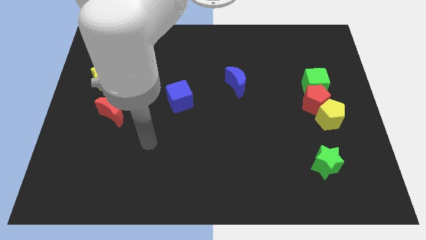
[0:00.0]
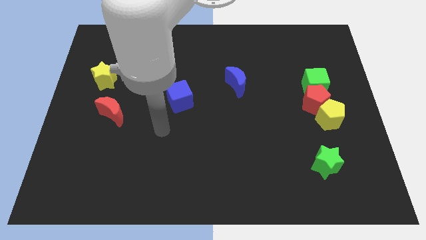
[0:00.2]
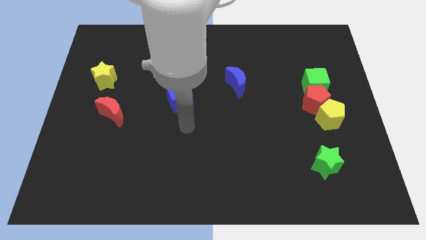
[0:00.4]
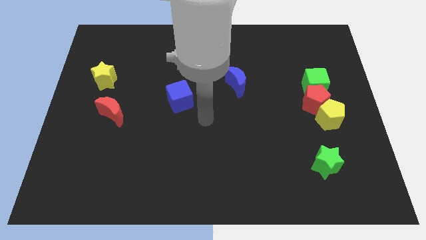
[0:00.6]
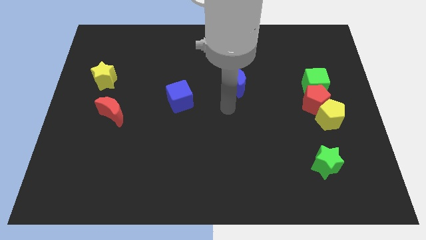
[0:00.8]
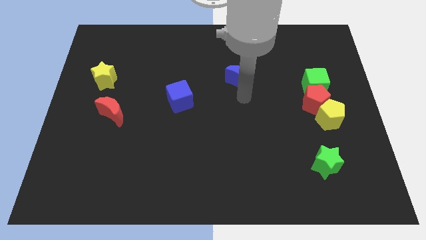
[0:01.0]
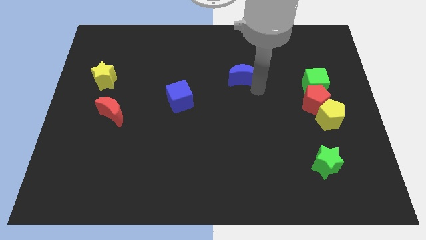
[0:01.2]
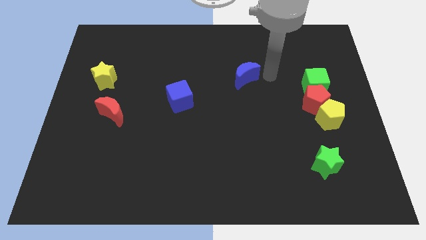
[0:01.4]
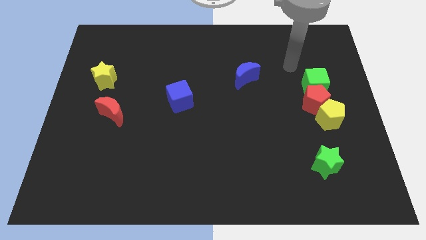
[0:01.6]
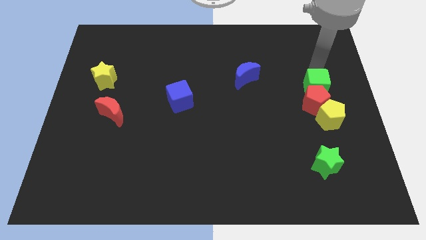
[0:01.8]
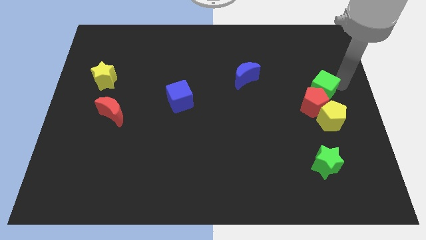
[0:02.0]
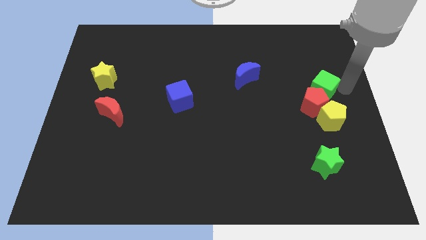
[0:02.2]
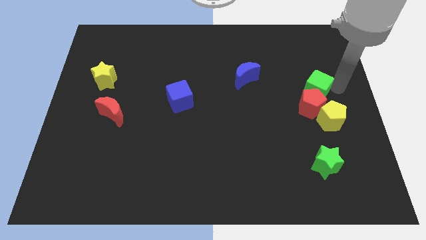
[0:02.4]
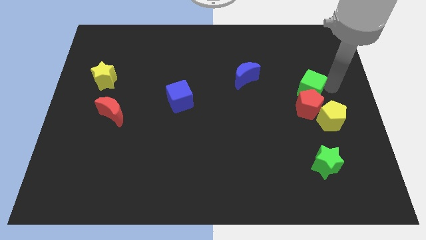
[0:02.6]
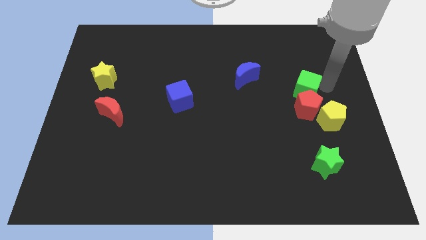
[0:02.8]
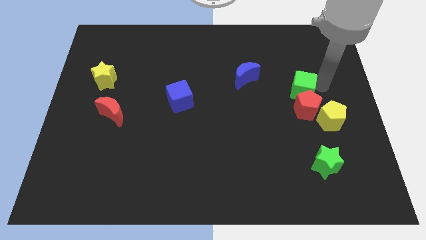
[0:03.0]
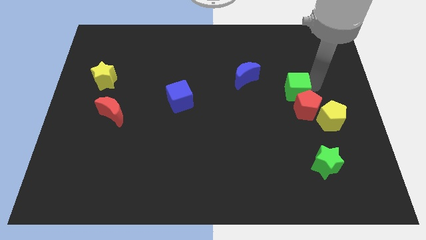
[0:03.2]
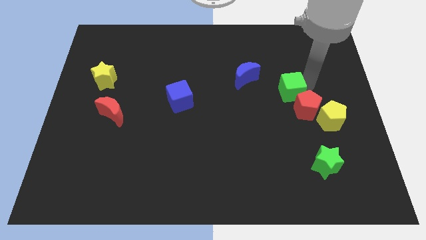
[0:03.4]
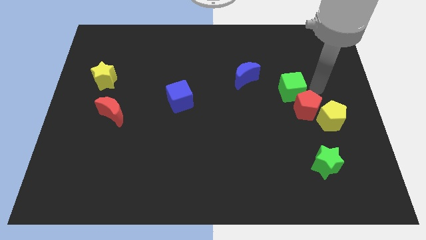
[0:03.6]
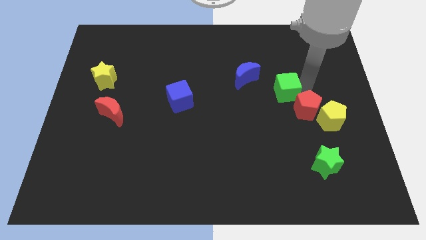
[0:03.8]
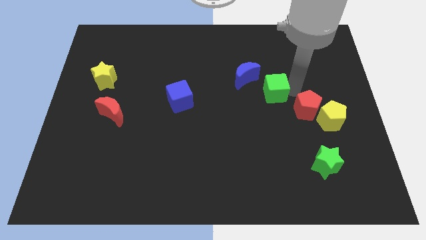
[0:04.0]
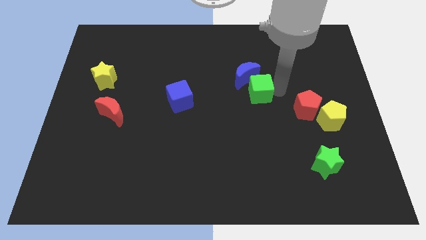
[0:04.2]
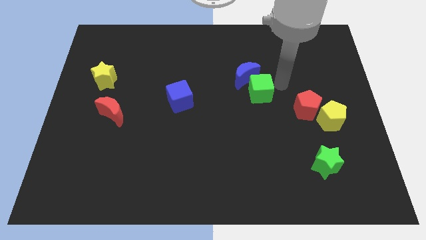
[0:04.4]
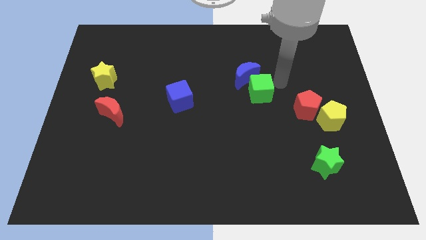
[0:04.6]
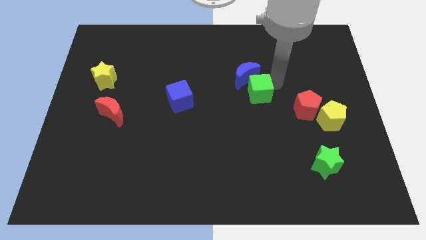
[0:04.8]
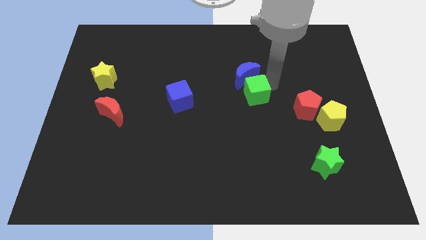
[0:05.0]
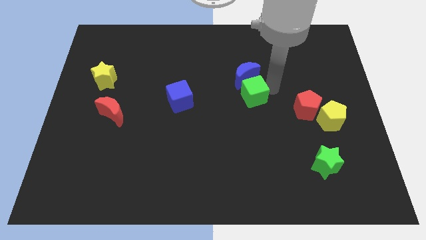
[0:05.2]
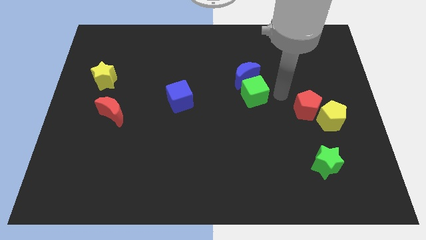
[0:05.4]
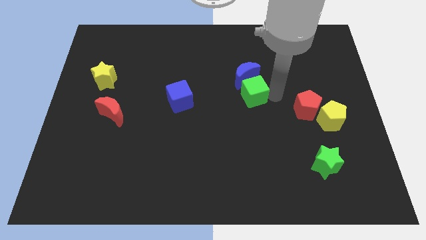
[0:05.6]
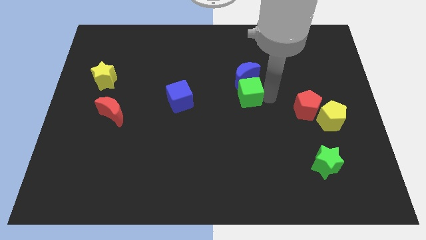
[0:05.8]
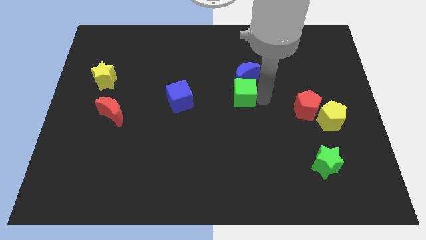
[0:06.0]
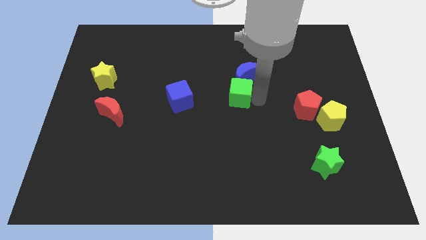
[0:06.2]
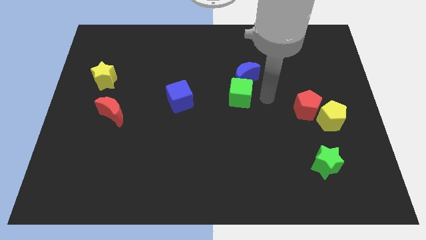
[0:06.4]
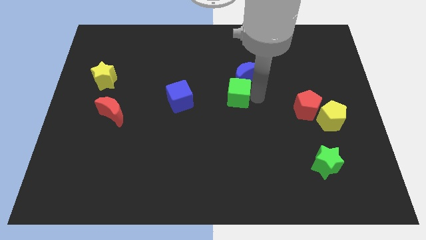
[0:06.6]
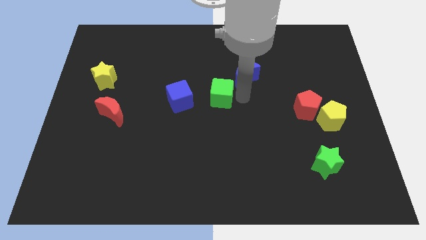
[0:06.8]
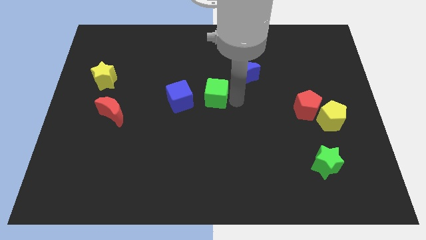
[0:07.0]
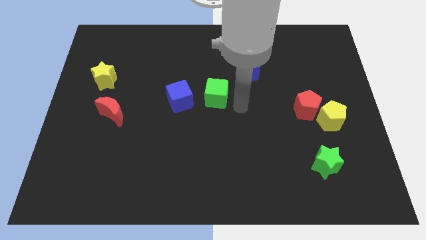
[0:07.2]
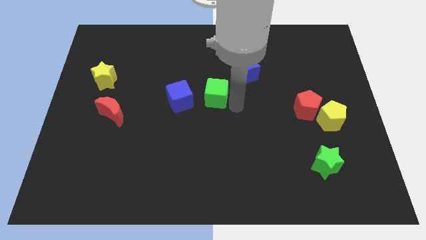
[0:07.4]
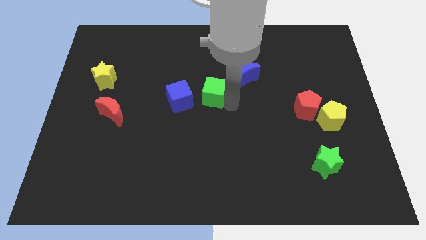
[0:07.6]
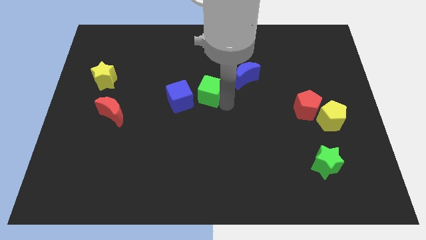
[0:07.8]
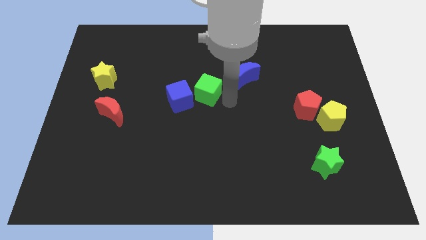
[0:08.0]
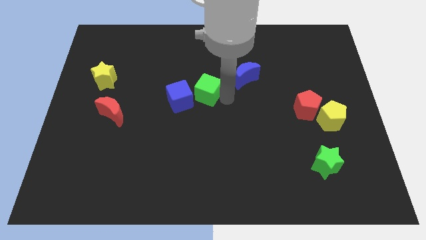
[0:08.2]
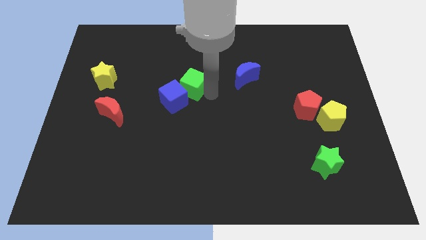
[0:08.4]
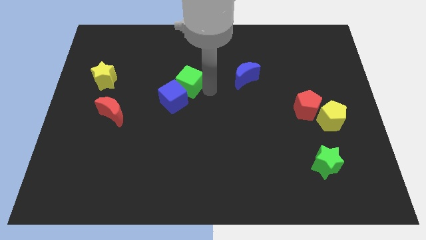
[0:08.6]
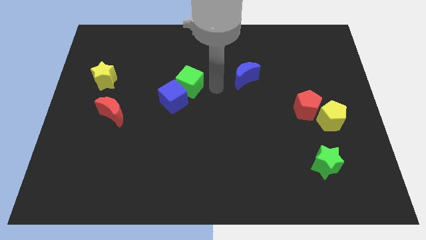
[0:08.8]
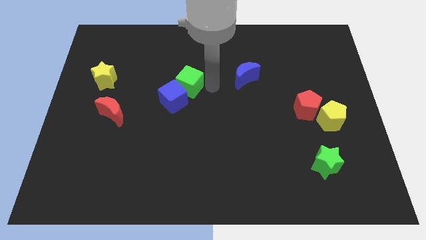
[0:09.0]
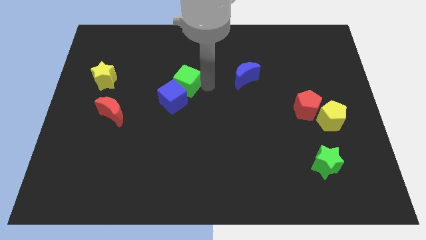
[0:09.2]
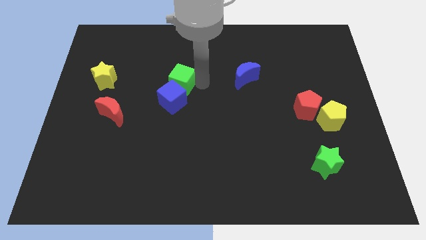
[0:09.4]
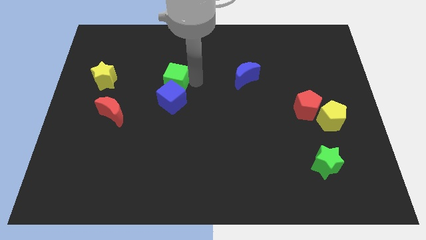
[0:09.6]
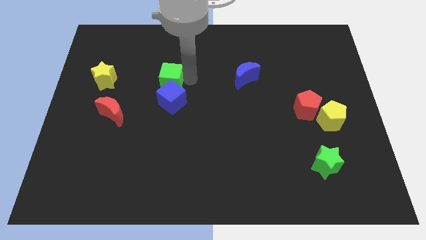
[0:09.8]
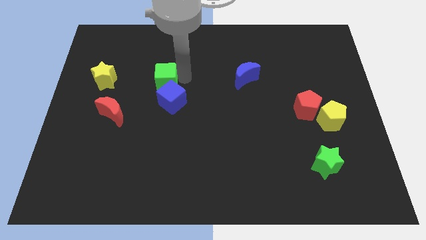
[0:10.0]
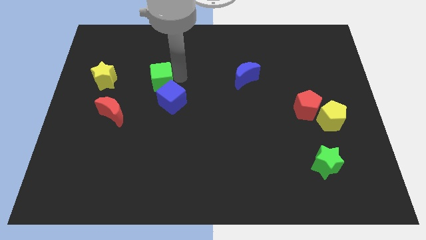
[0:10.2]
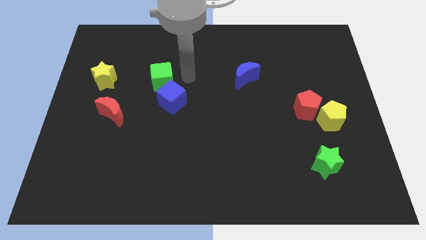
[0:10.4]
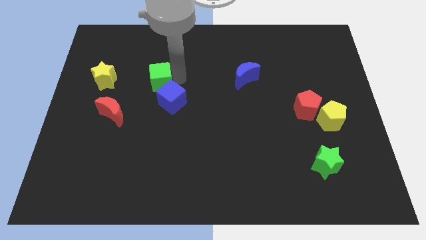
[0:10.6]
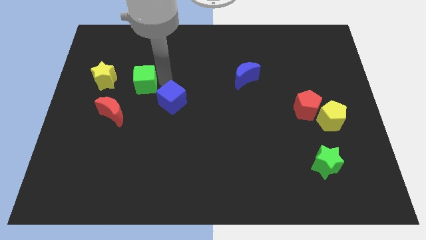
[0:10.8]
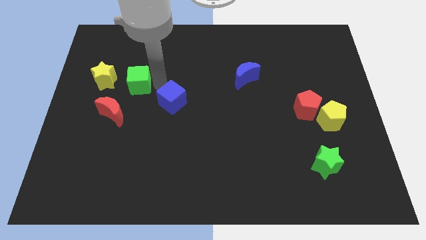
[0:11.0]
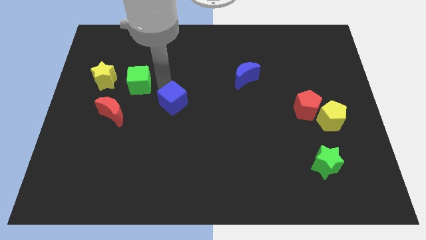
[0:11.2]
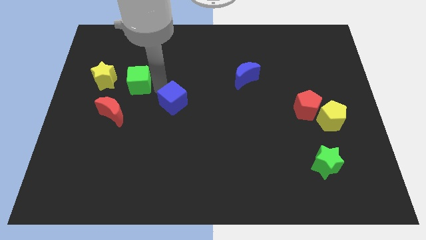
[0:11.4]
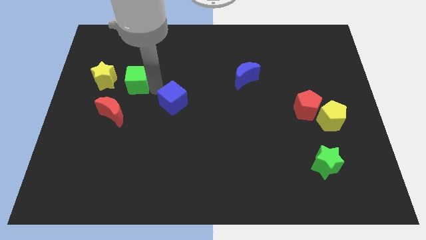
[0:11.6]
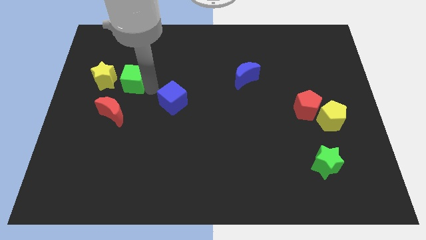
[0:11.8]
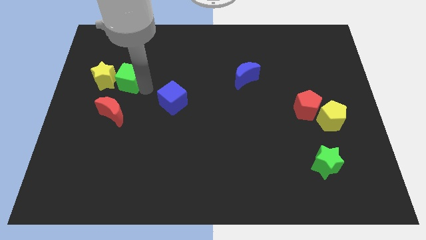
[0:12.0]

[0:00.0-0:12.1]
slide the green cube to the yellow star

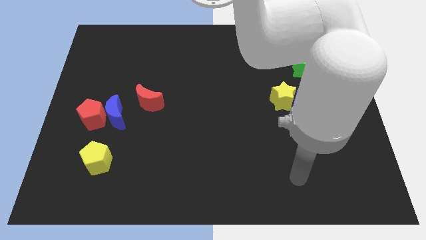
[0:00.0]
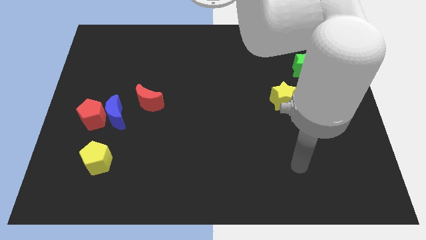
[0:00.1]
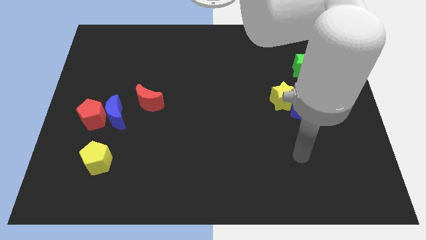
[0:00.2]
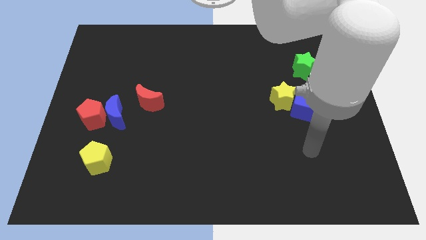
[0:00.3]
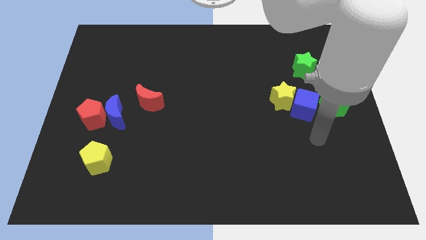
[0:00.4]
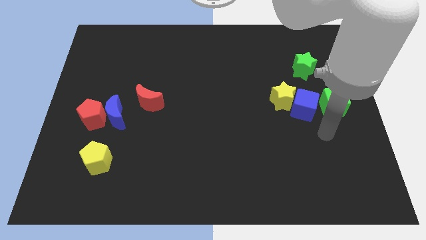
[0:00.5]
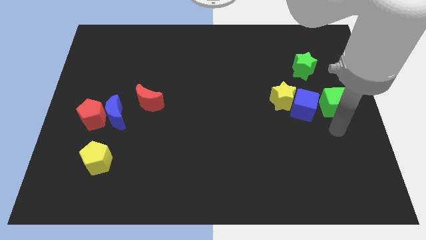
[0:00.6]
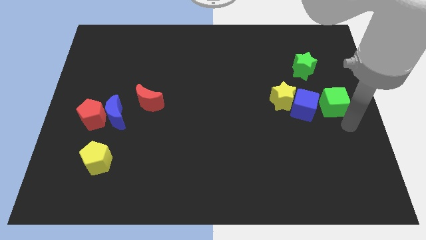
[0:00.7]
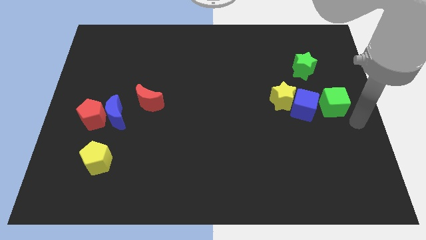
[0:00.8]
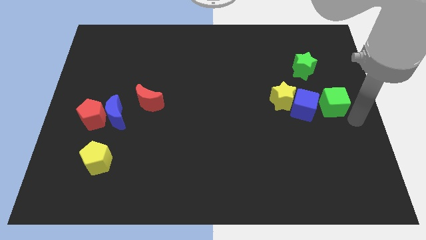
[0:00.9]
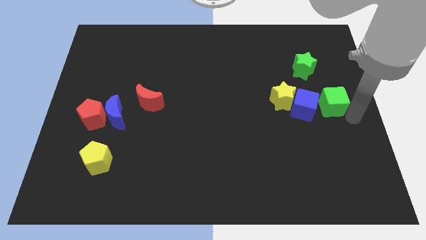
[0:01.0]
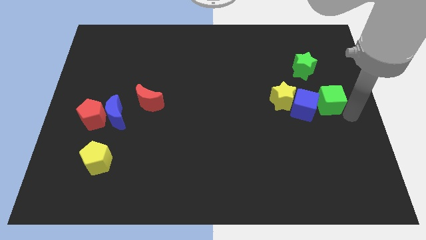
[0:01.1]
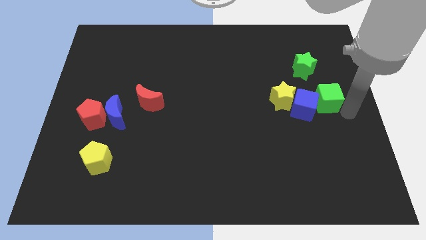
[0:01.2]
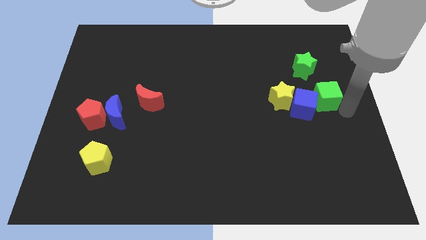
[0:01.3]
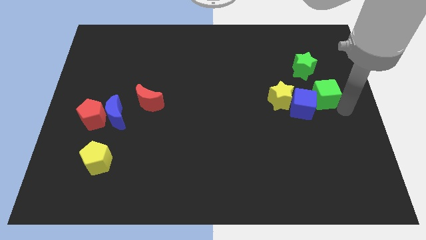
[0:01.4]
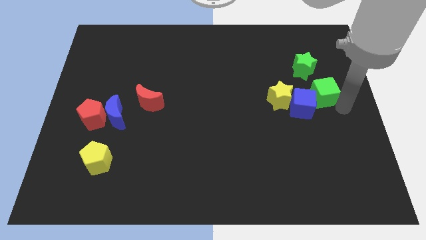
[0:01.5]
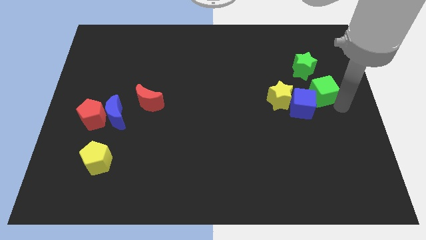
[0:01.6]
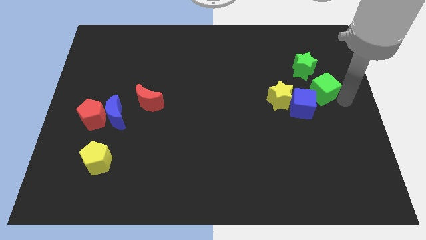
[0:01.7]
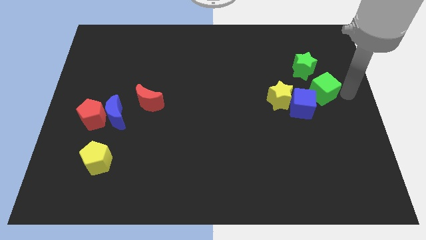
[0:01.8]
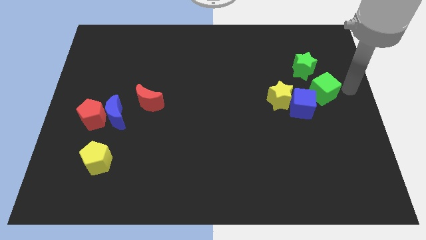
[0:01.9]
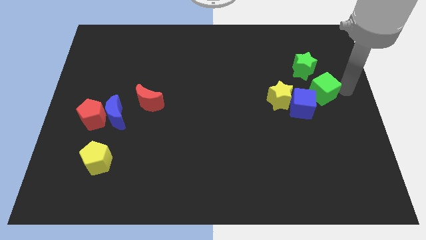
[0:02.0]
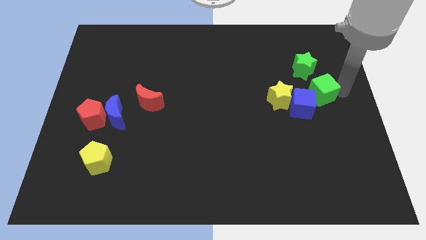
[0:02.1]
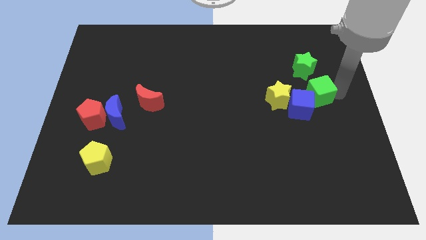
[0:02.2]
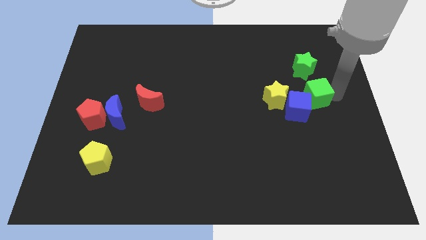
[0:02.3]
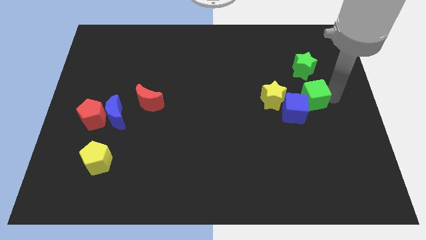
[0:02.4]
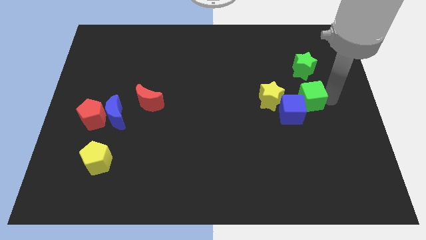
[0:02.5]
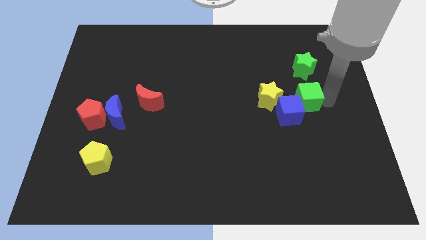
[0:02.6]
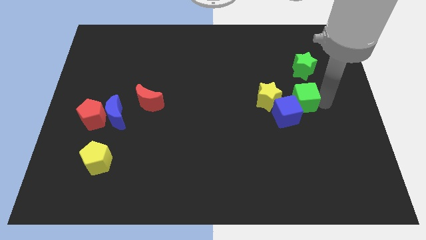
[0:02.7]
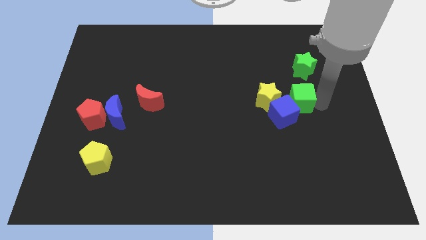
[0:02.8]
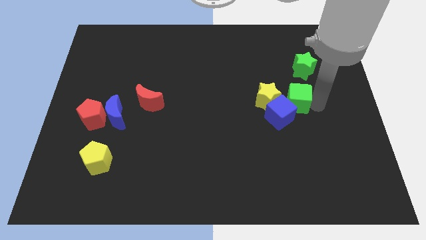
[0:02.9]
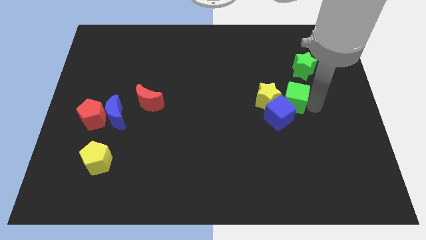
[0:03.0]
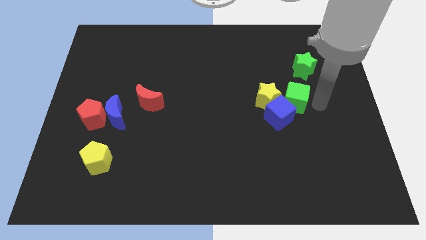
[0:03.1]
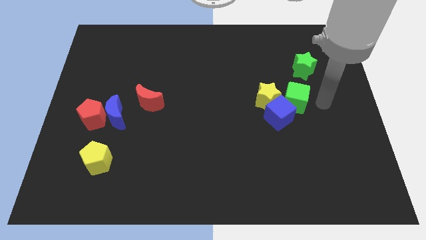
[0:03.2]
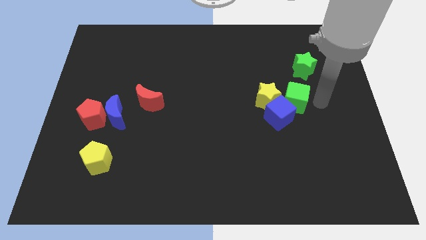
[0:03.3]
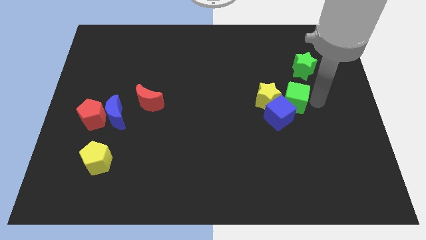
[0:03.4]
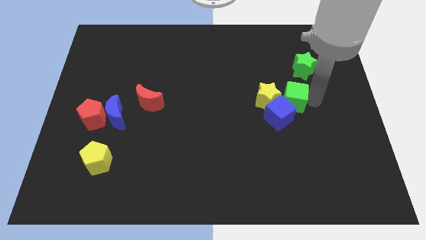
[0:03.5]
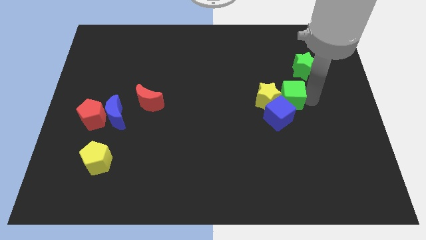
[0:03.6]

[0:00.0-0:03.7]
put the green cube close to the yellow star
